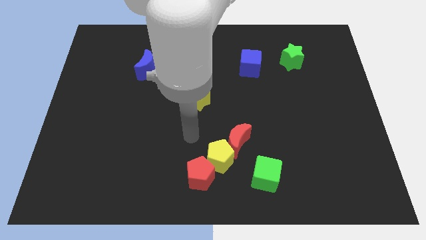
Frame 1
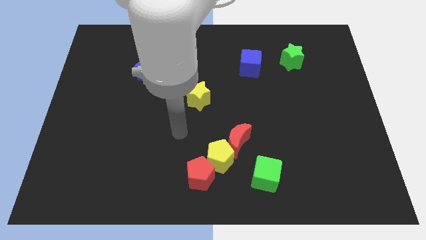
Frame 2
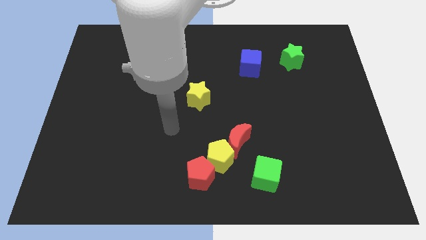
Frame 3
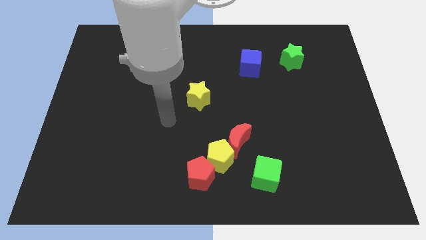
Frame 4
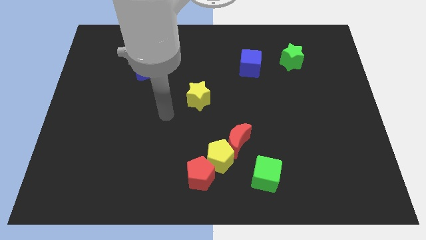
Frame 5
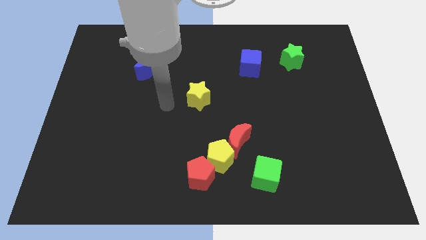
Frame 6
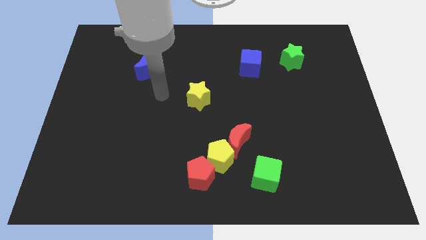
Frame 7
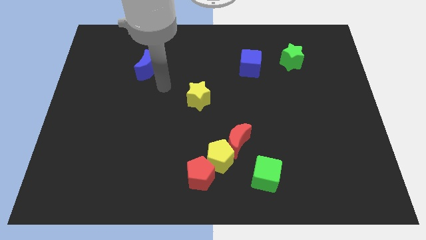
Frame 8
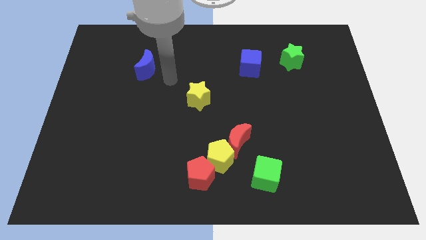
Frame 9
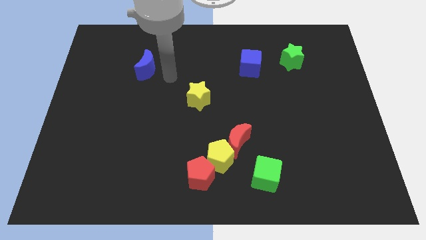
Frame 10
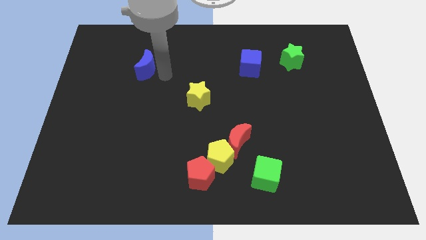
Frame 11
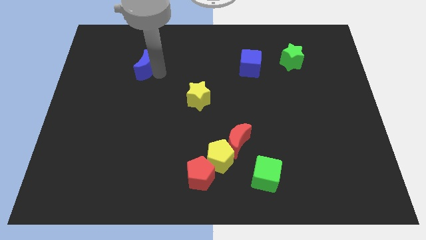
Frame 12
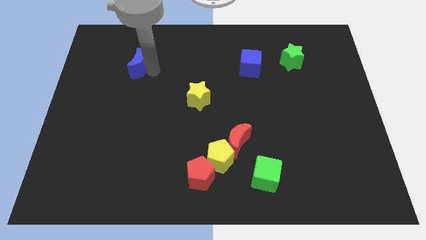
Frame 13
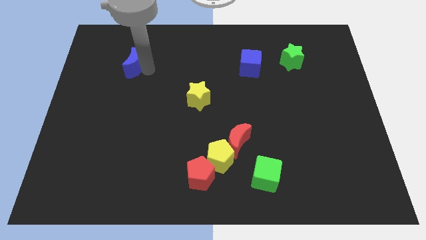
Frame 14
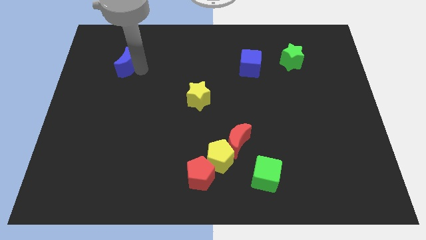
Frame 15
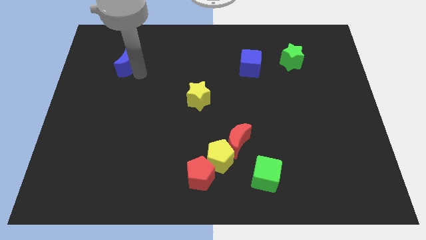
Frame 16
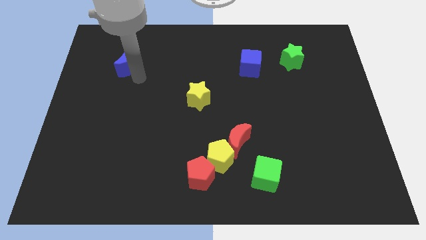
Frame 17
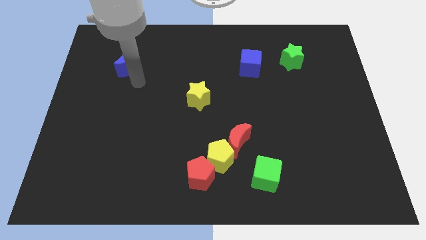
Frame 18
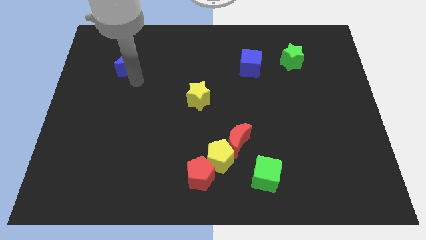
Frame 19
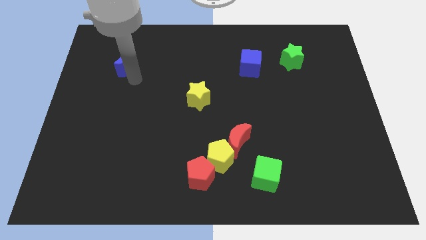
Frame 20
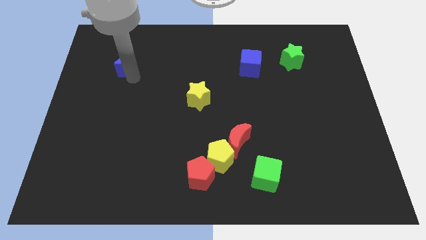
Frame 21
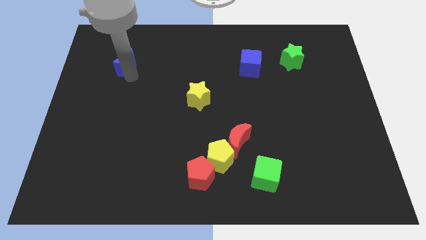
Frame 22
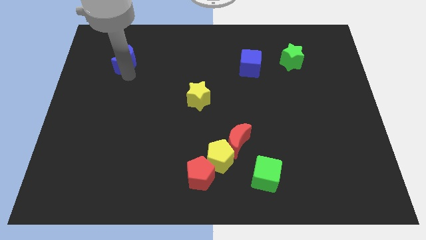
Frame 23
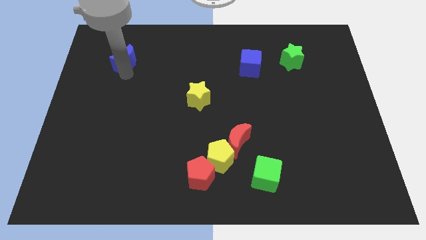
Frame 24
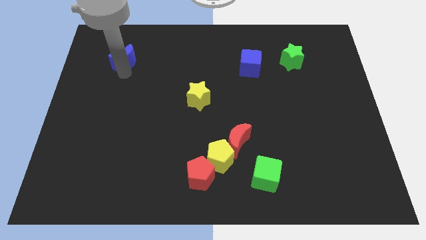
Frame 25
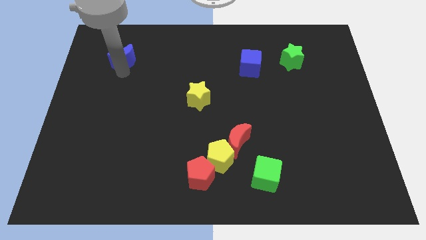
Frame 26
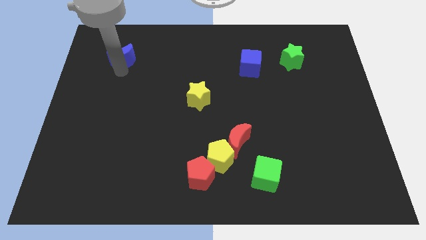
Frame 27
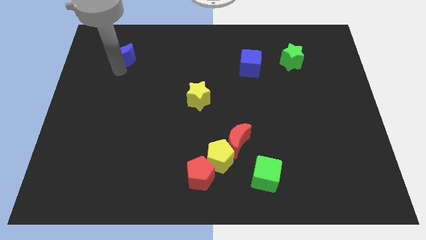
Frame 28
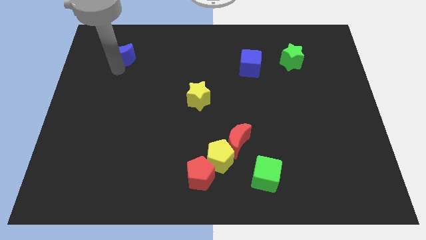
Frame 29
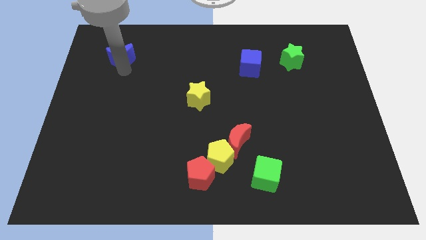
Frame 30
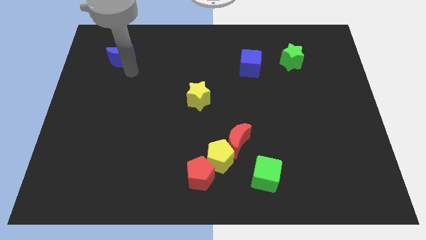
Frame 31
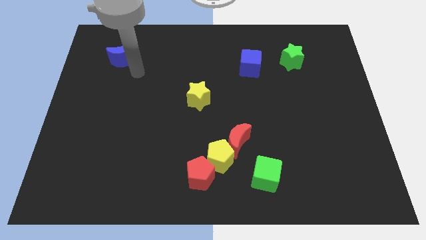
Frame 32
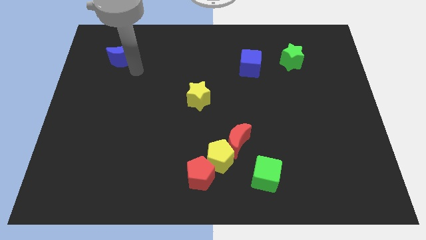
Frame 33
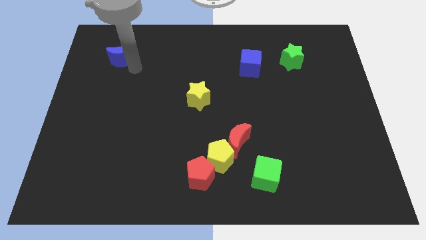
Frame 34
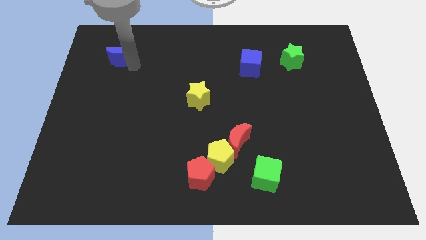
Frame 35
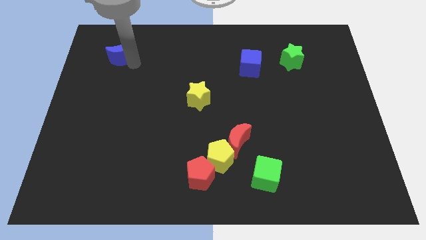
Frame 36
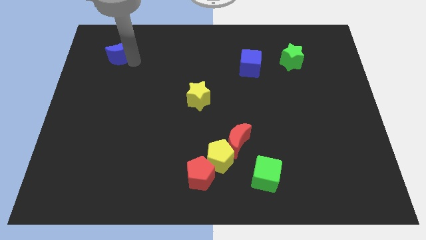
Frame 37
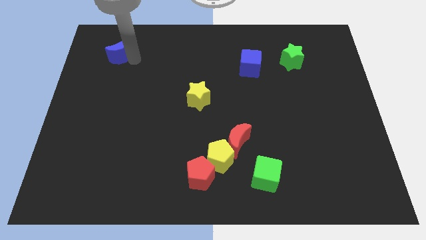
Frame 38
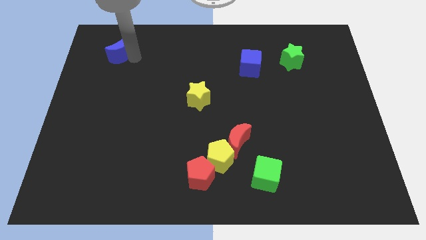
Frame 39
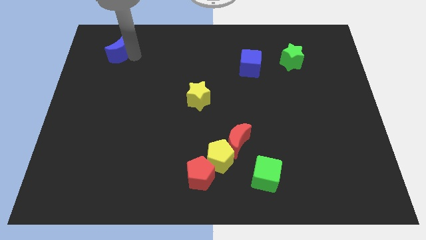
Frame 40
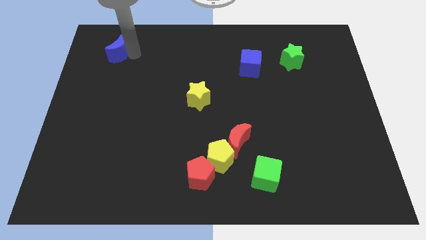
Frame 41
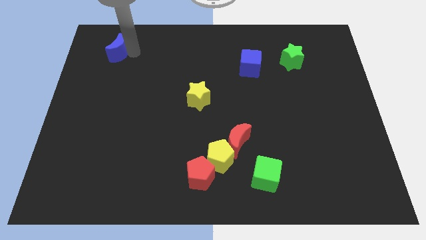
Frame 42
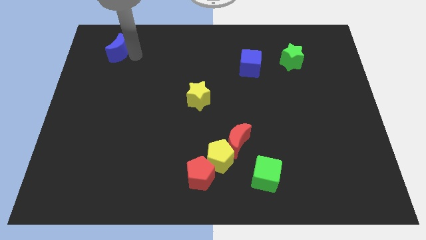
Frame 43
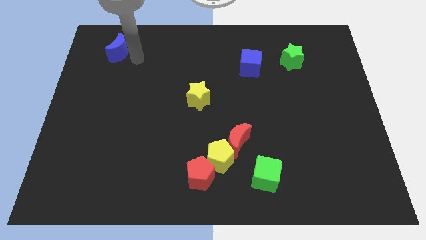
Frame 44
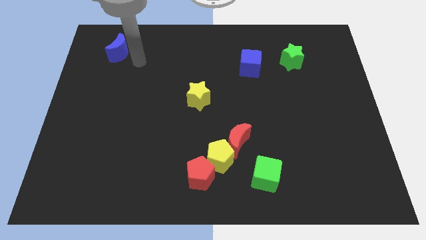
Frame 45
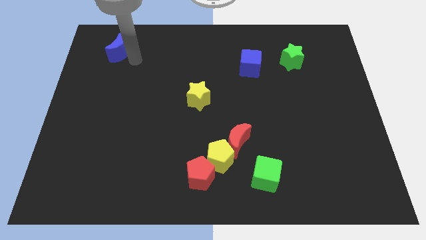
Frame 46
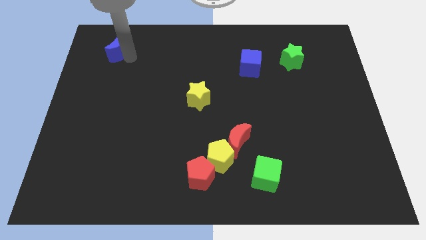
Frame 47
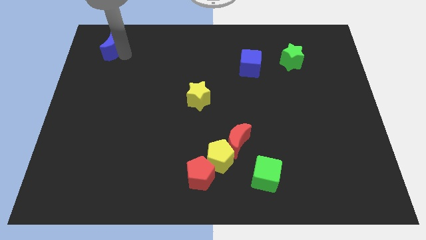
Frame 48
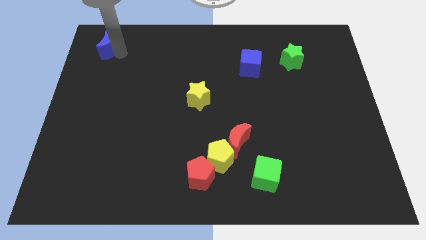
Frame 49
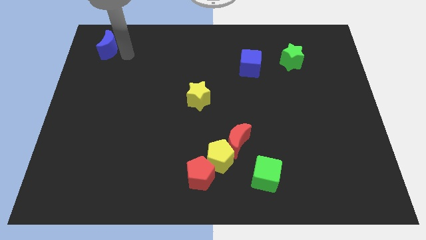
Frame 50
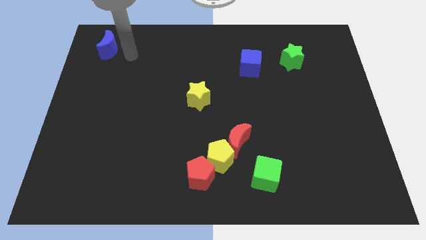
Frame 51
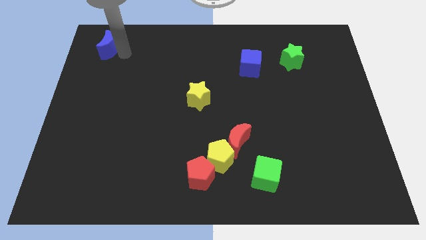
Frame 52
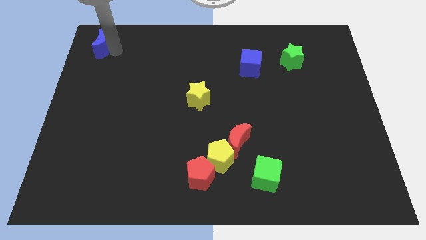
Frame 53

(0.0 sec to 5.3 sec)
slide the blue moon to the top left

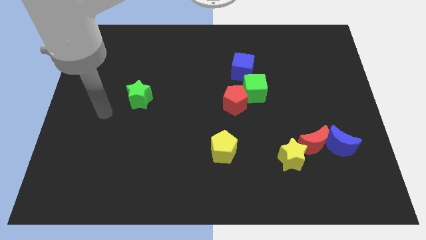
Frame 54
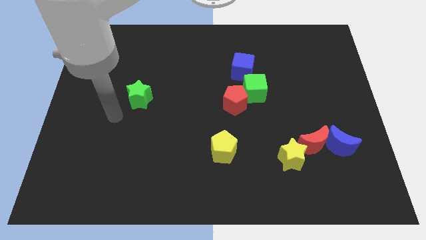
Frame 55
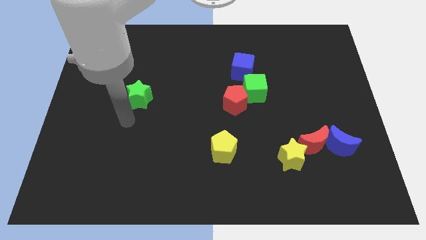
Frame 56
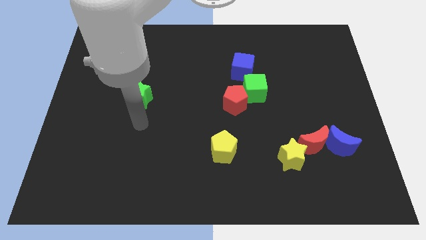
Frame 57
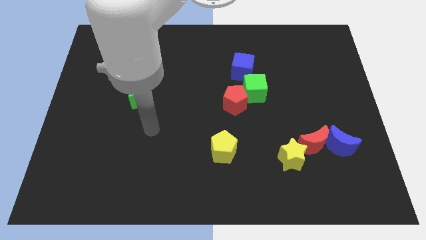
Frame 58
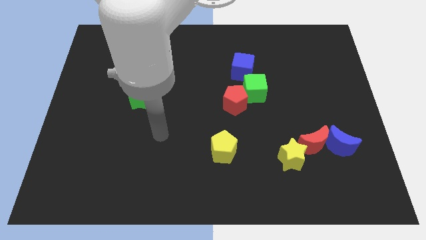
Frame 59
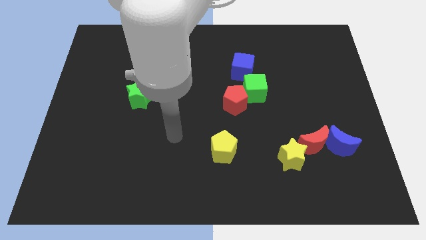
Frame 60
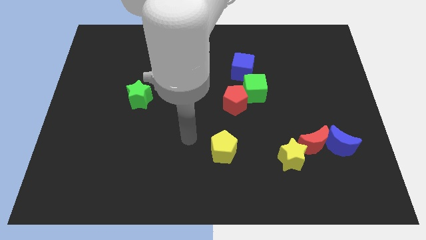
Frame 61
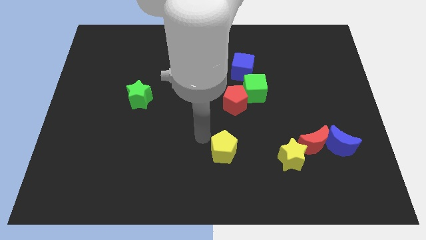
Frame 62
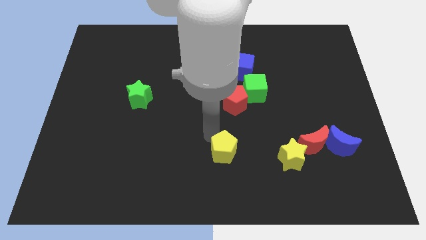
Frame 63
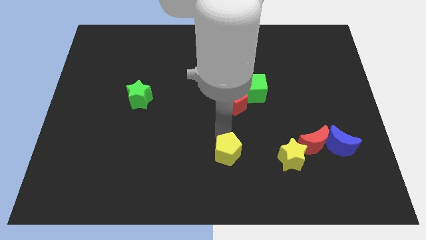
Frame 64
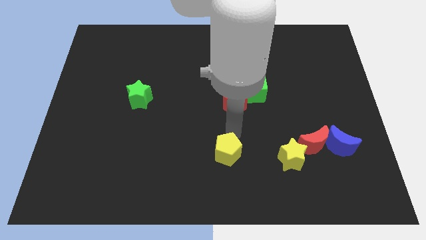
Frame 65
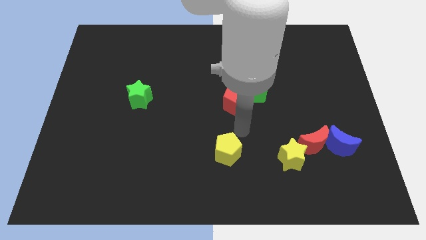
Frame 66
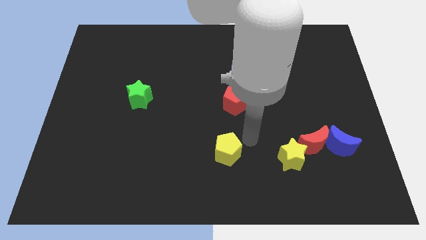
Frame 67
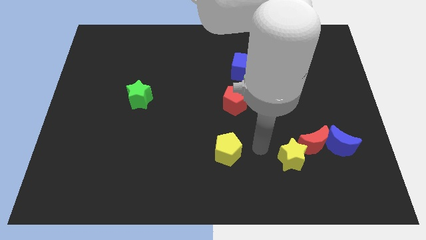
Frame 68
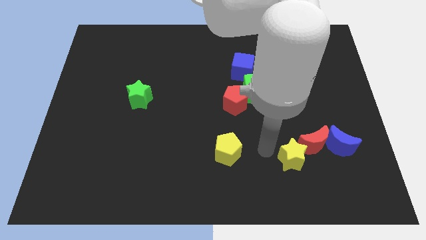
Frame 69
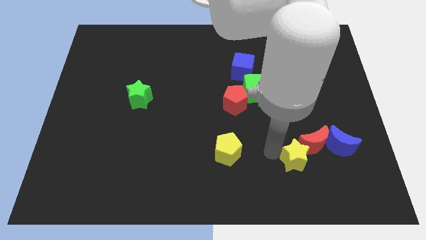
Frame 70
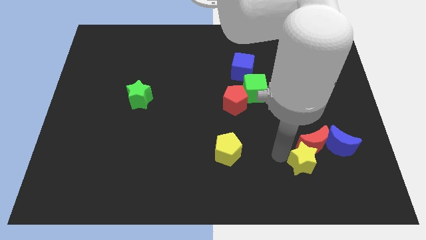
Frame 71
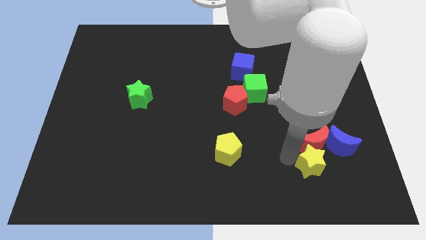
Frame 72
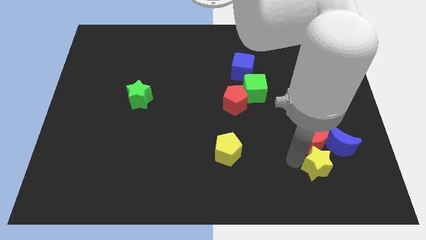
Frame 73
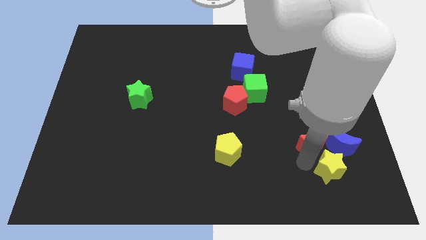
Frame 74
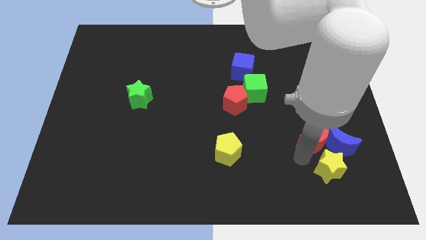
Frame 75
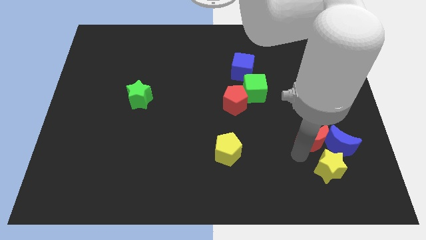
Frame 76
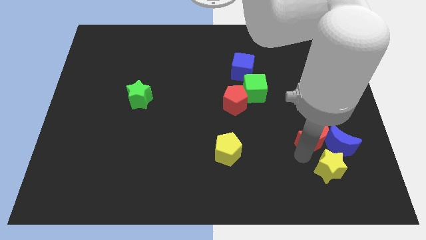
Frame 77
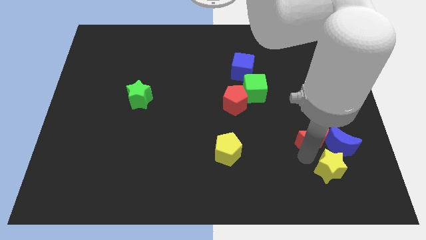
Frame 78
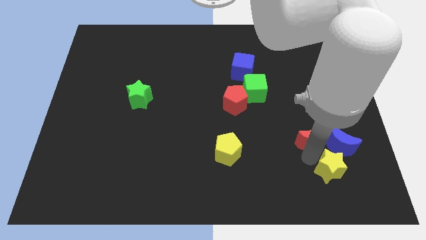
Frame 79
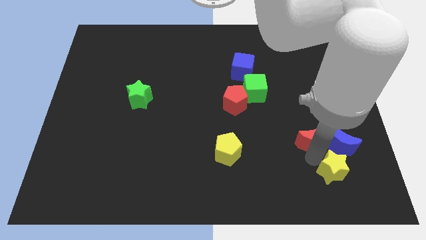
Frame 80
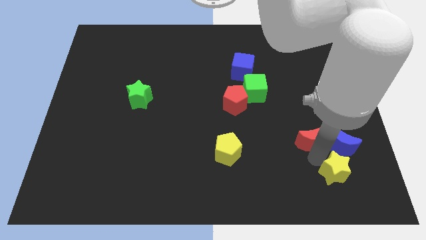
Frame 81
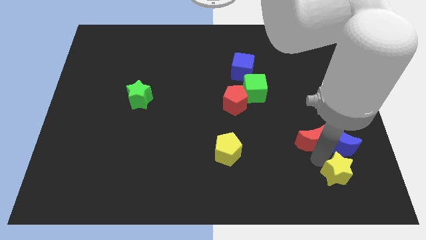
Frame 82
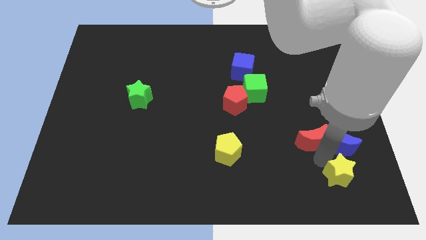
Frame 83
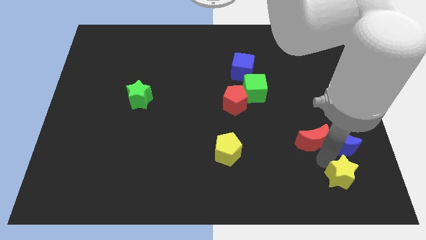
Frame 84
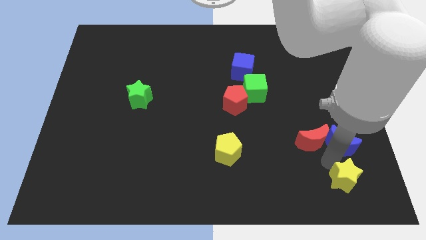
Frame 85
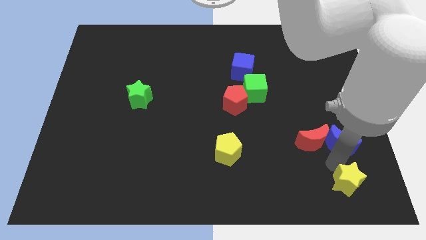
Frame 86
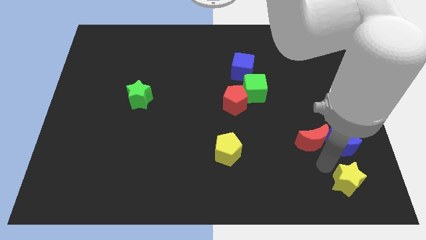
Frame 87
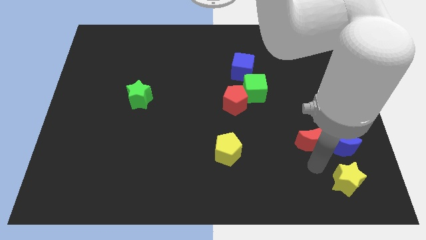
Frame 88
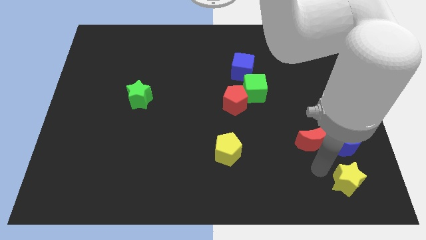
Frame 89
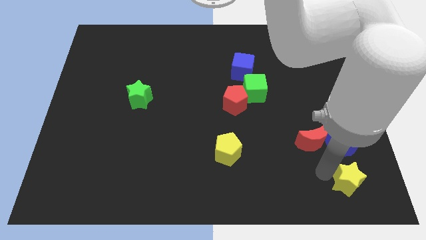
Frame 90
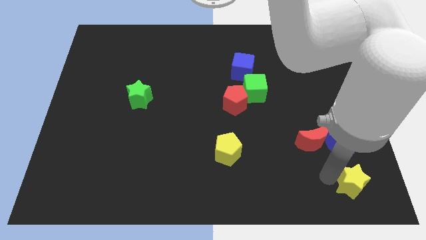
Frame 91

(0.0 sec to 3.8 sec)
slide the yellow star to the bottom right
